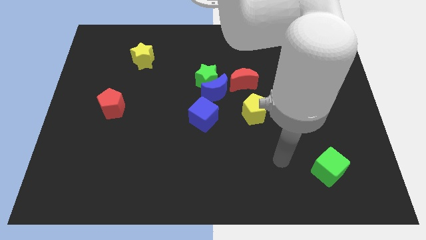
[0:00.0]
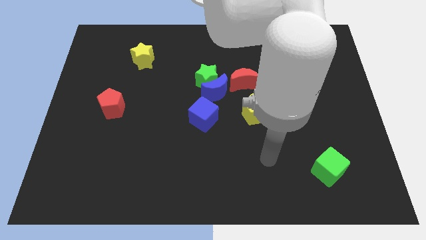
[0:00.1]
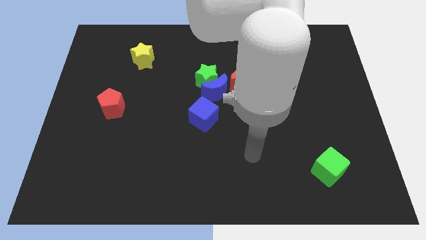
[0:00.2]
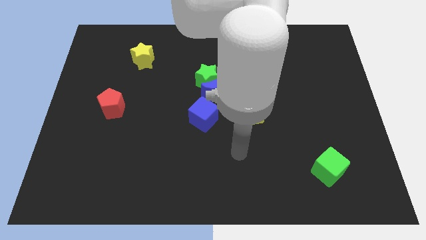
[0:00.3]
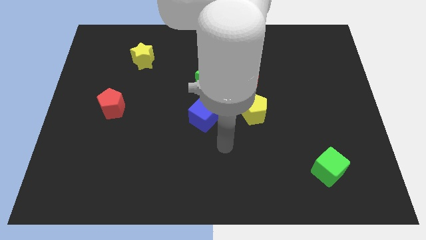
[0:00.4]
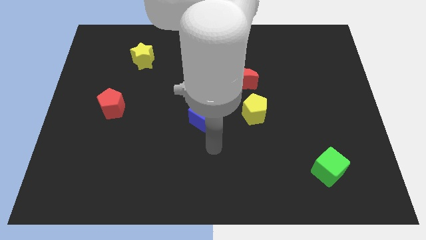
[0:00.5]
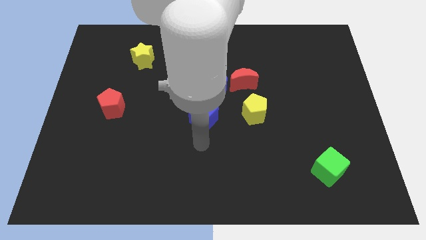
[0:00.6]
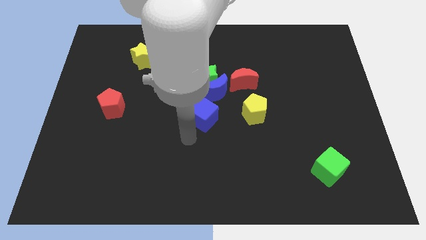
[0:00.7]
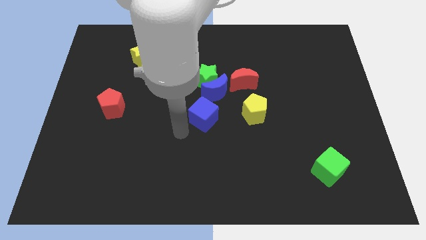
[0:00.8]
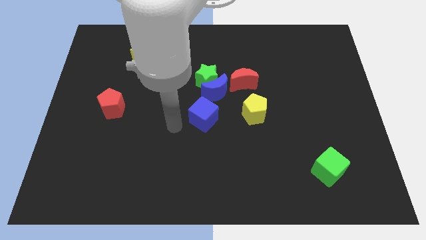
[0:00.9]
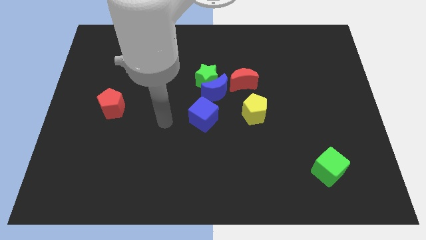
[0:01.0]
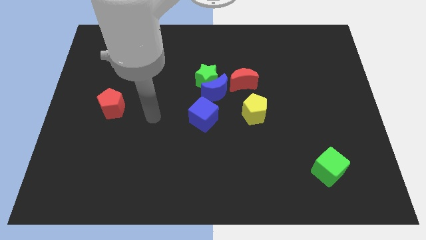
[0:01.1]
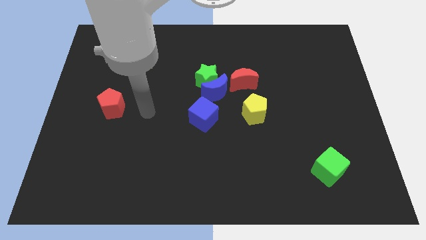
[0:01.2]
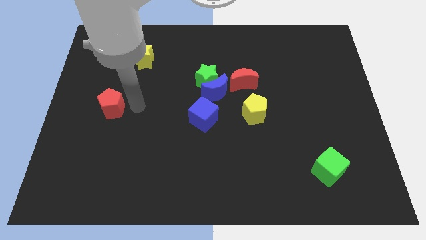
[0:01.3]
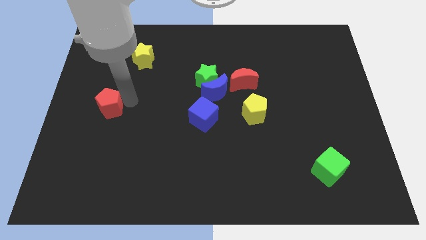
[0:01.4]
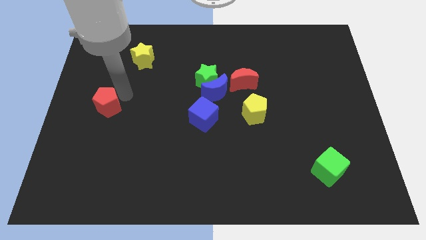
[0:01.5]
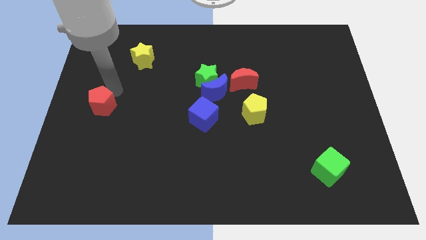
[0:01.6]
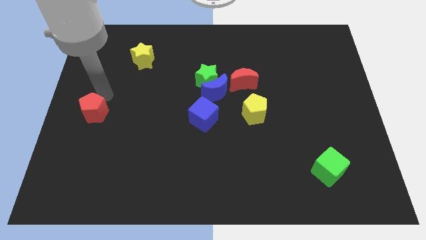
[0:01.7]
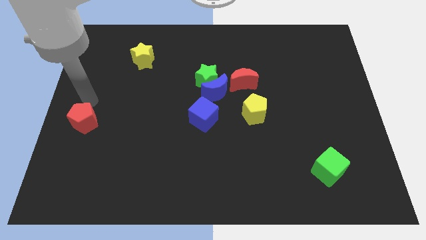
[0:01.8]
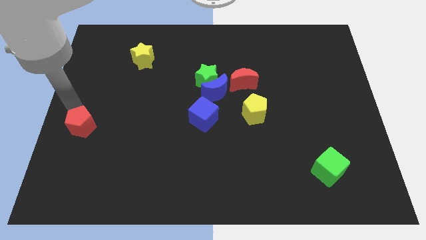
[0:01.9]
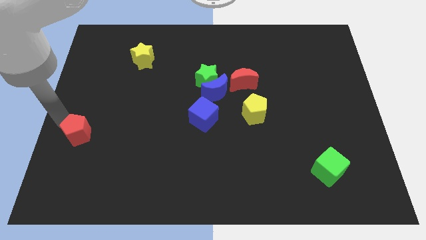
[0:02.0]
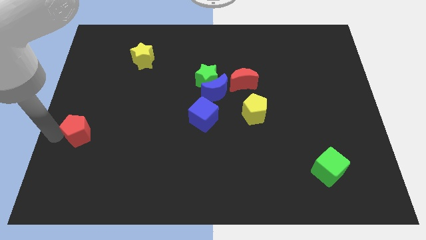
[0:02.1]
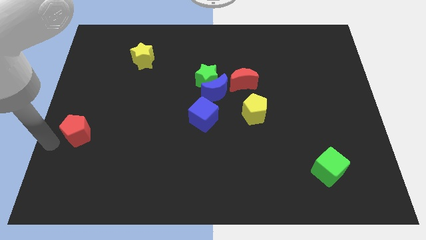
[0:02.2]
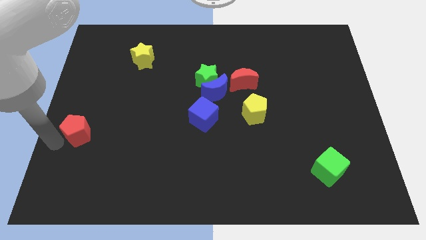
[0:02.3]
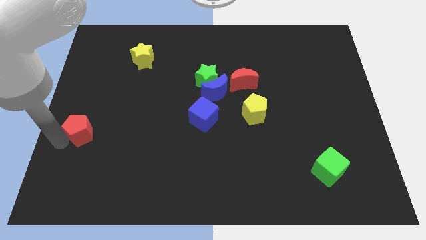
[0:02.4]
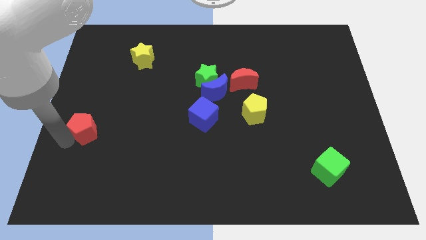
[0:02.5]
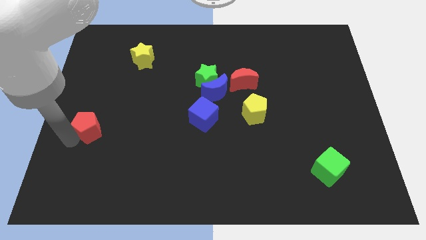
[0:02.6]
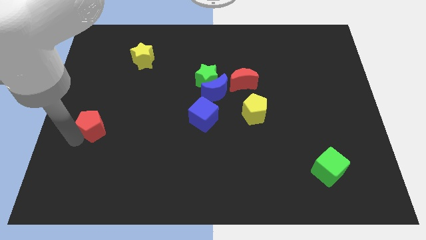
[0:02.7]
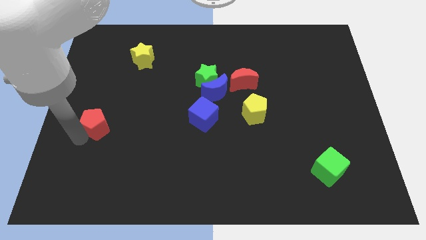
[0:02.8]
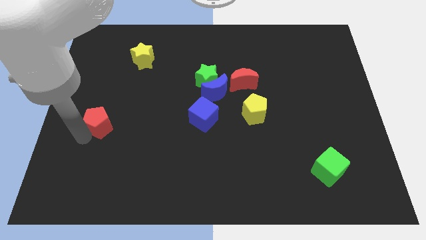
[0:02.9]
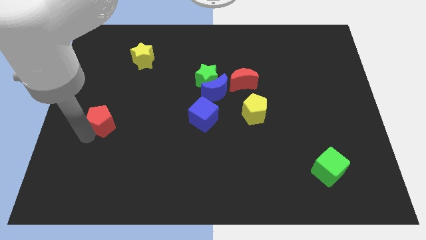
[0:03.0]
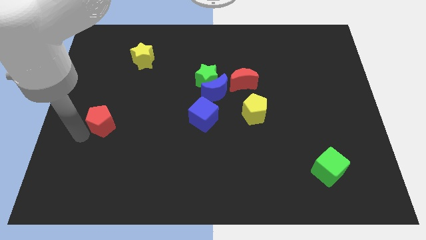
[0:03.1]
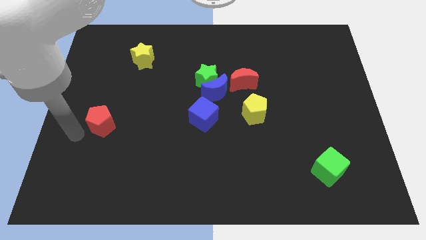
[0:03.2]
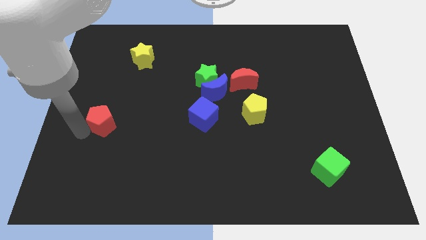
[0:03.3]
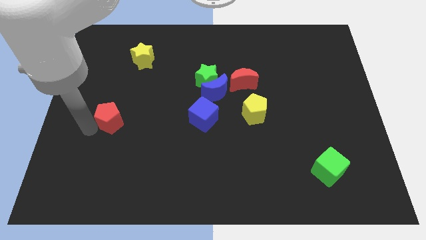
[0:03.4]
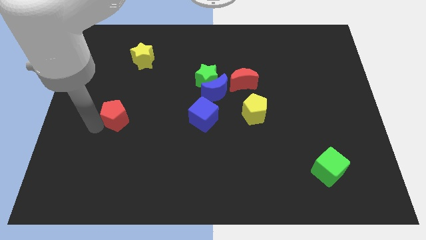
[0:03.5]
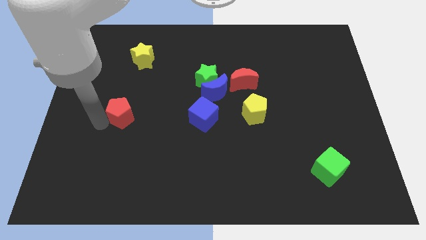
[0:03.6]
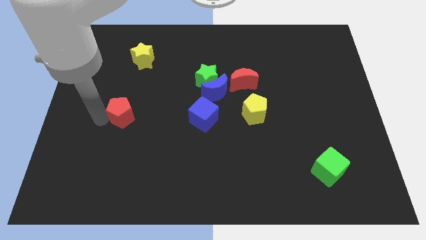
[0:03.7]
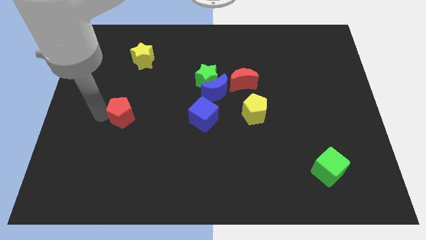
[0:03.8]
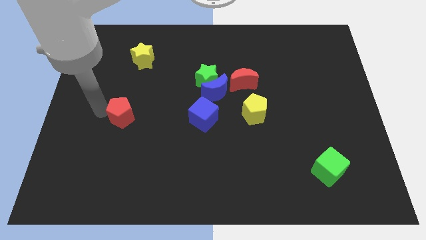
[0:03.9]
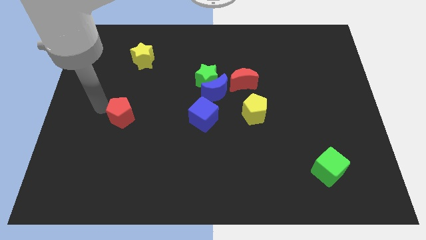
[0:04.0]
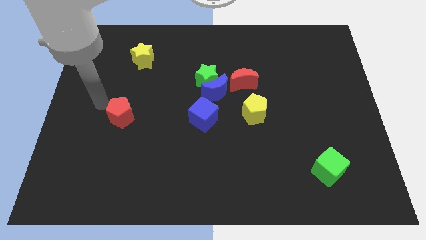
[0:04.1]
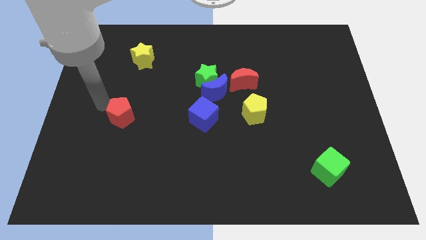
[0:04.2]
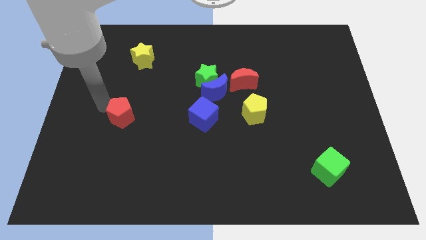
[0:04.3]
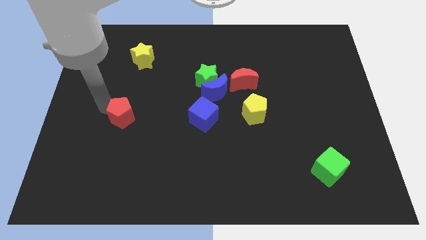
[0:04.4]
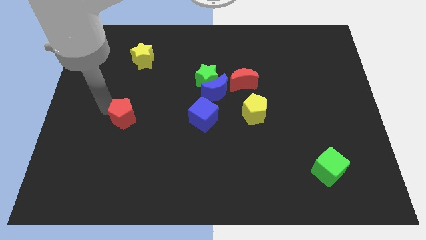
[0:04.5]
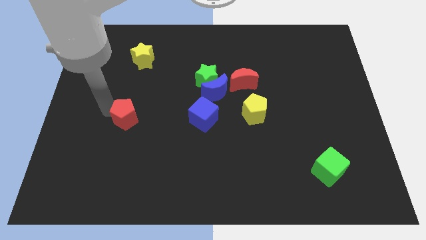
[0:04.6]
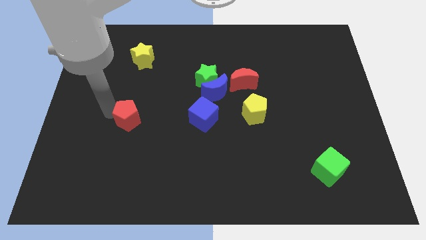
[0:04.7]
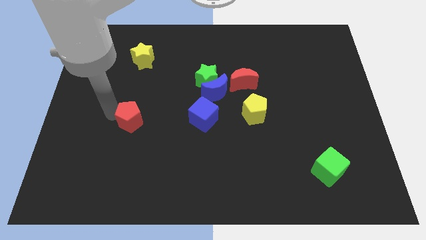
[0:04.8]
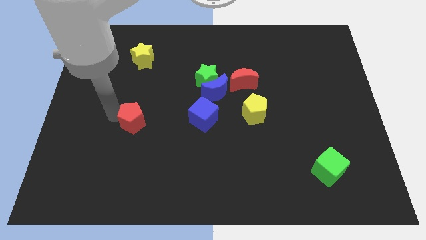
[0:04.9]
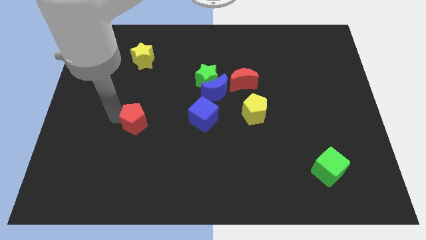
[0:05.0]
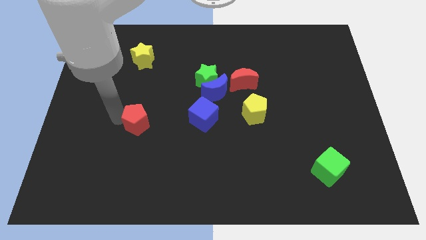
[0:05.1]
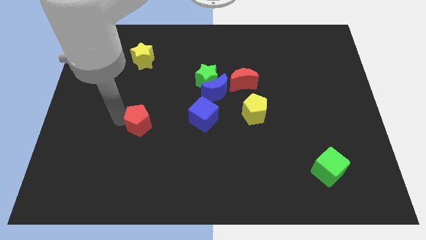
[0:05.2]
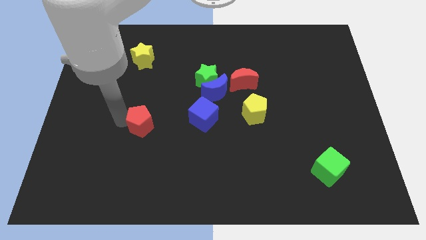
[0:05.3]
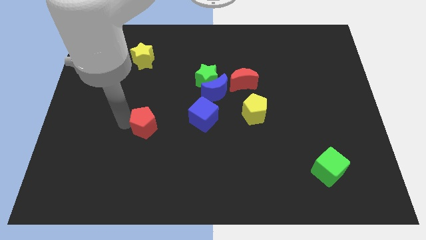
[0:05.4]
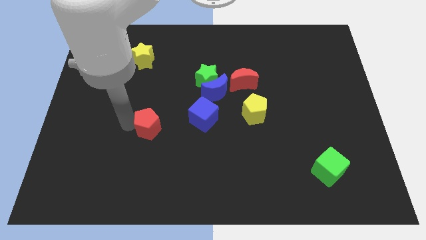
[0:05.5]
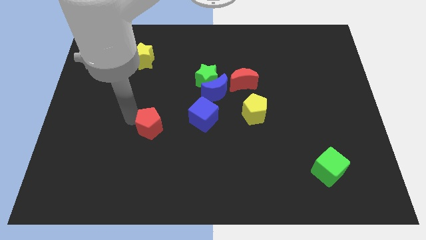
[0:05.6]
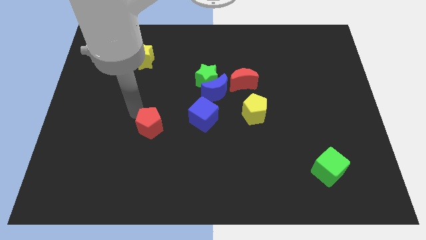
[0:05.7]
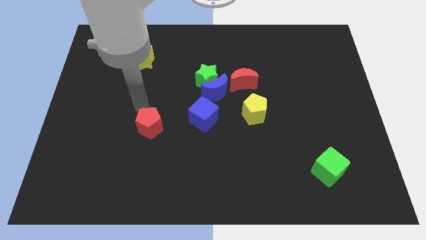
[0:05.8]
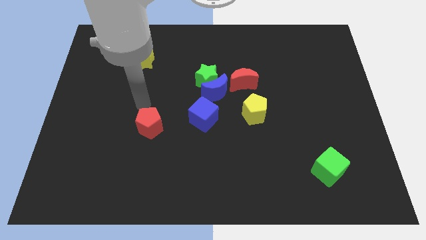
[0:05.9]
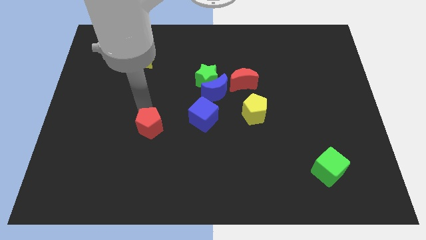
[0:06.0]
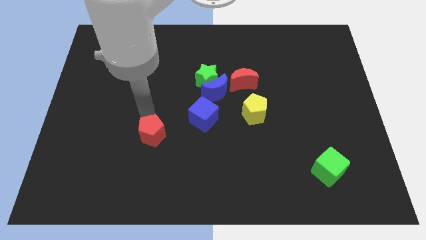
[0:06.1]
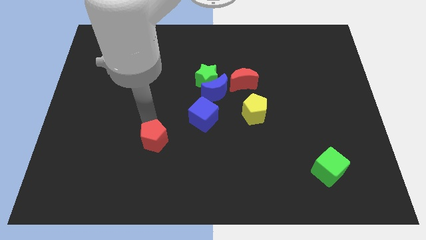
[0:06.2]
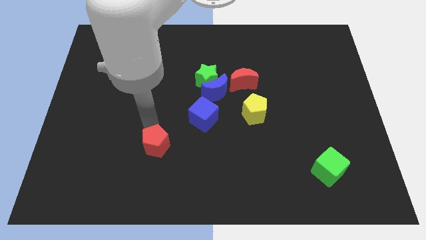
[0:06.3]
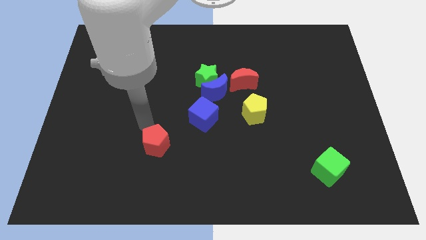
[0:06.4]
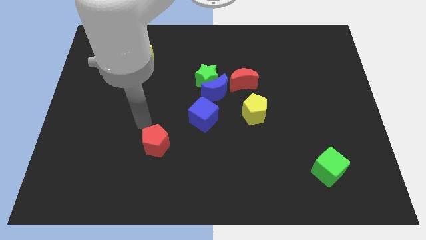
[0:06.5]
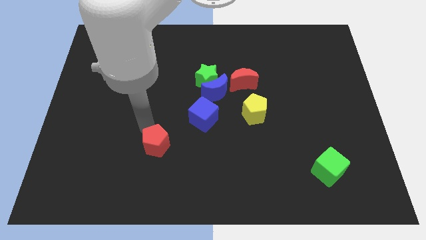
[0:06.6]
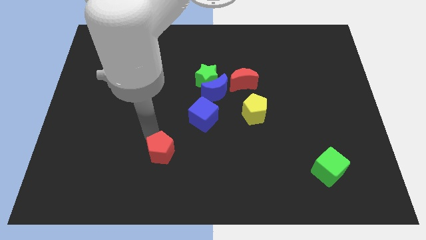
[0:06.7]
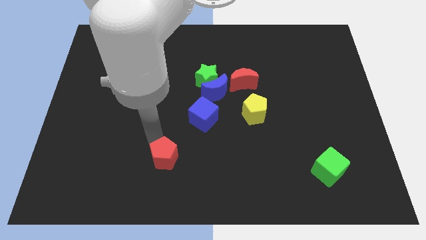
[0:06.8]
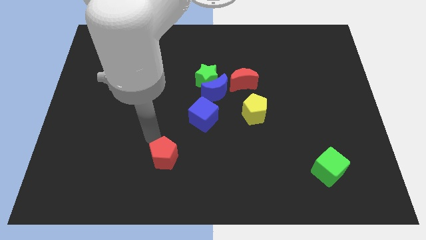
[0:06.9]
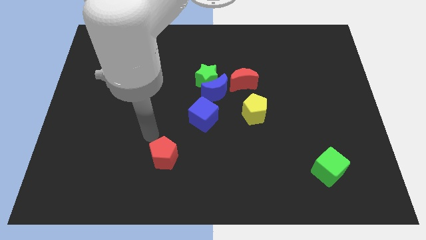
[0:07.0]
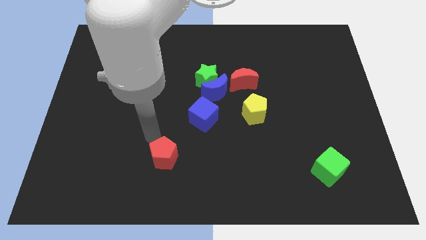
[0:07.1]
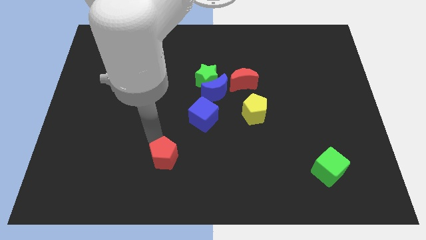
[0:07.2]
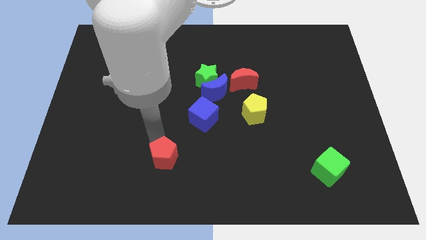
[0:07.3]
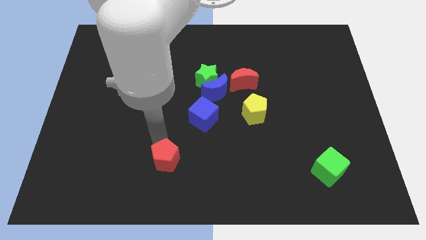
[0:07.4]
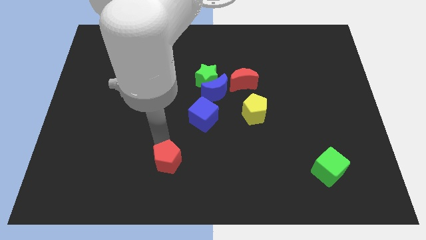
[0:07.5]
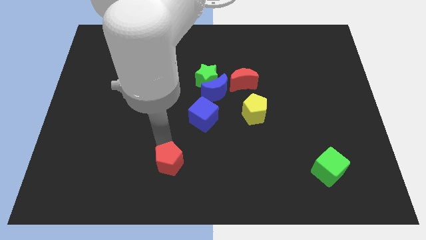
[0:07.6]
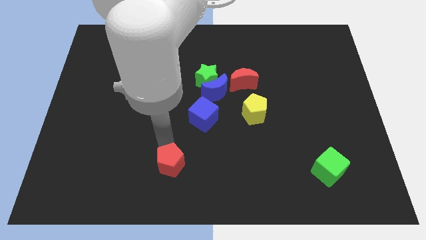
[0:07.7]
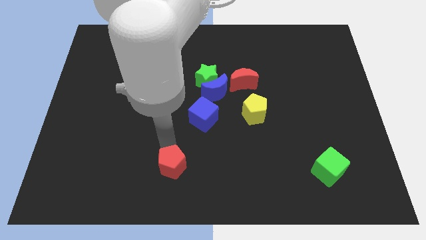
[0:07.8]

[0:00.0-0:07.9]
put the red pentagon to the bottom
